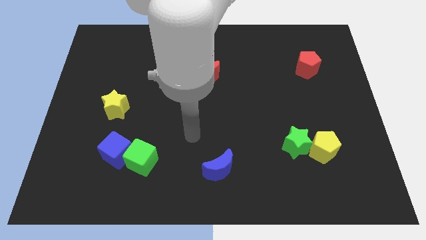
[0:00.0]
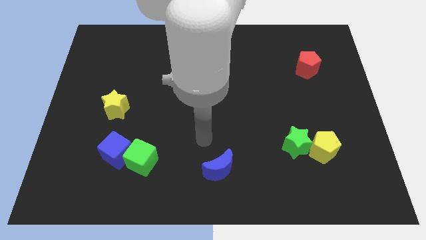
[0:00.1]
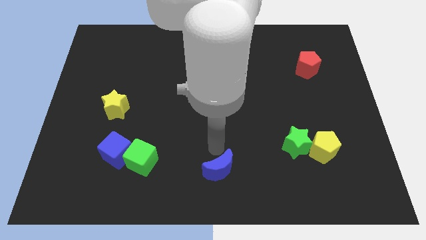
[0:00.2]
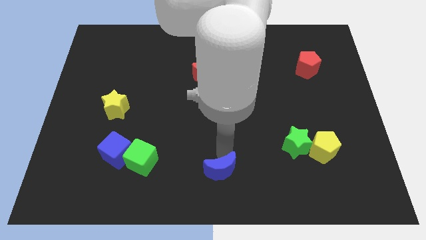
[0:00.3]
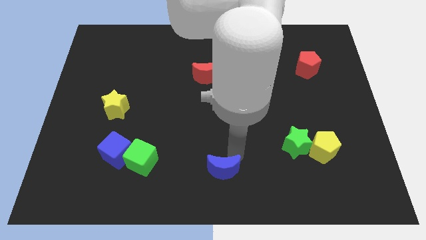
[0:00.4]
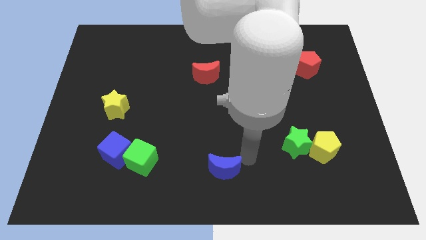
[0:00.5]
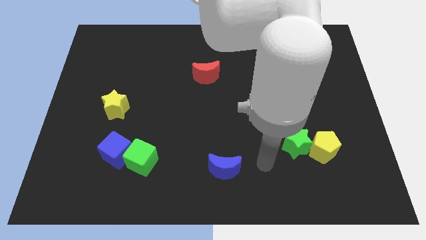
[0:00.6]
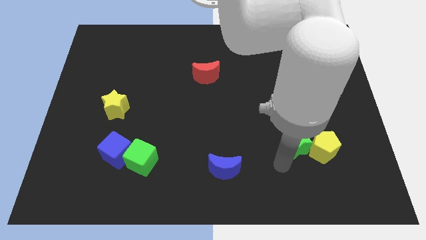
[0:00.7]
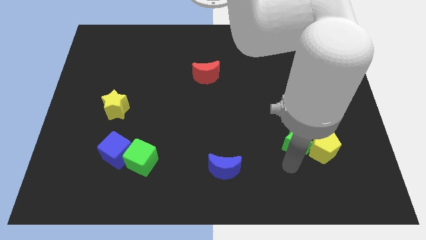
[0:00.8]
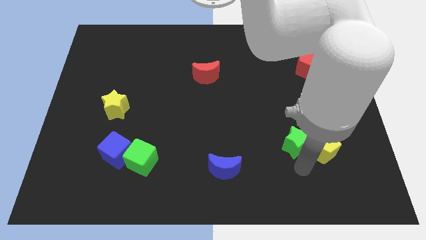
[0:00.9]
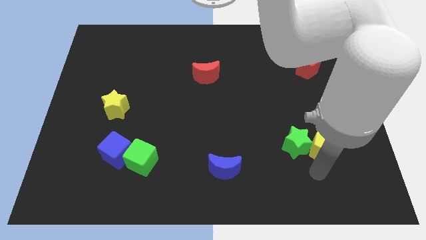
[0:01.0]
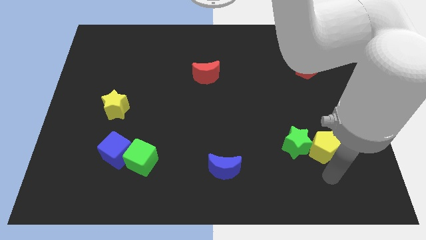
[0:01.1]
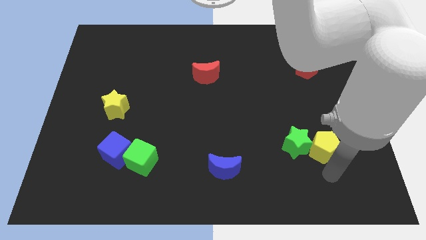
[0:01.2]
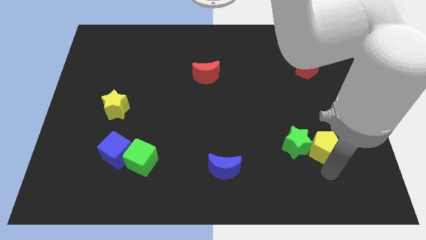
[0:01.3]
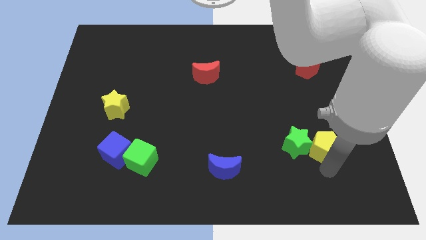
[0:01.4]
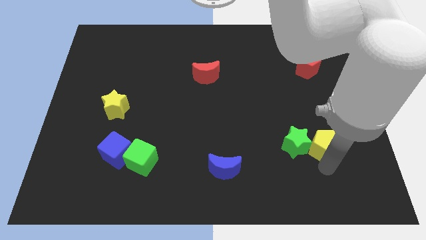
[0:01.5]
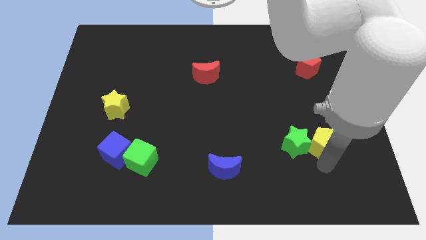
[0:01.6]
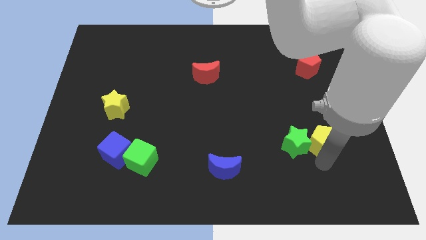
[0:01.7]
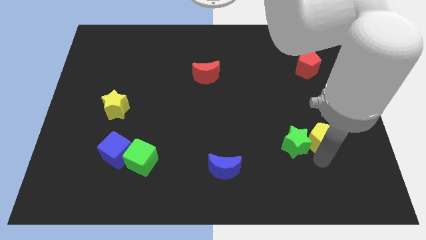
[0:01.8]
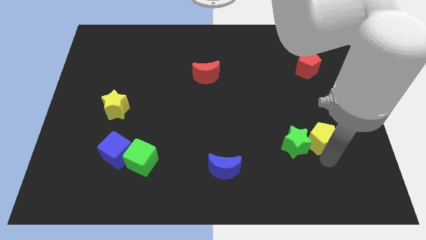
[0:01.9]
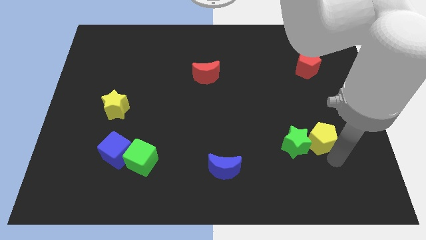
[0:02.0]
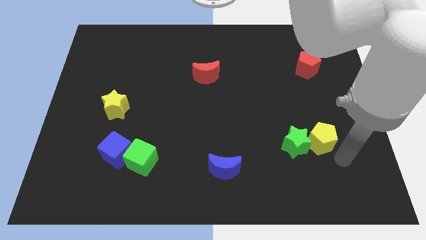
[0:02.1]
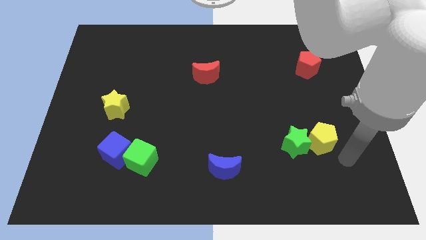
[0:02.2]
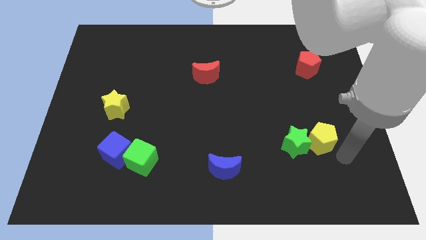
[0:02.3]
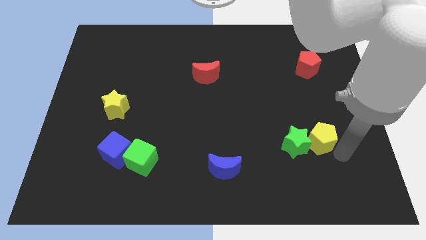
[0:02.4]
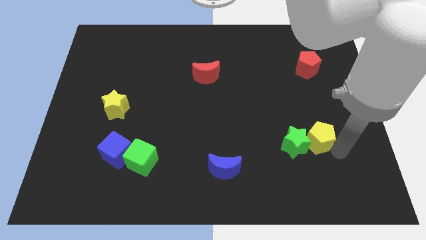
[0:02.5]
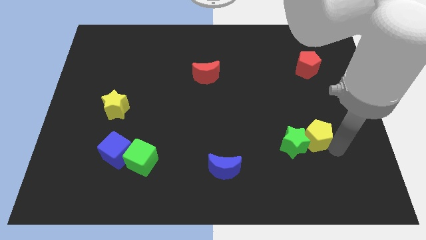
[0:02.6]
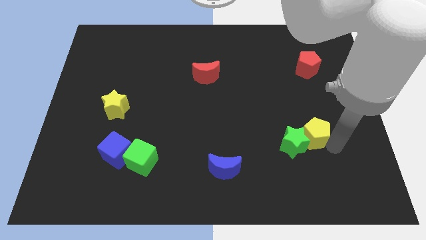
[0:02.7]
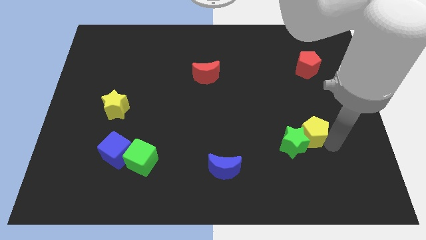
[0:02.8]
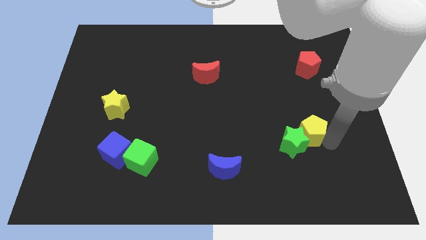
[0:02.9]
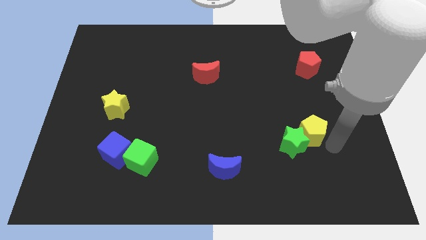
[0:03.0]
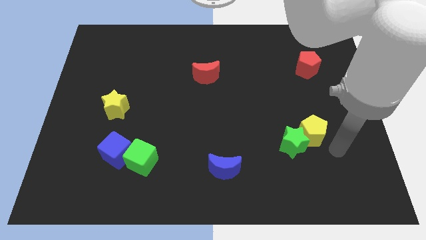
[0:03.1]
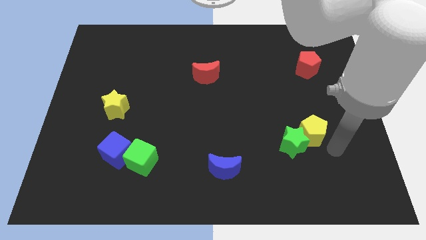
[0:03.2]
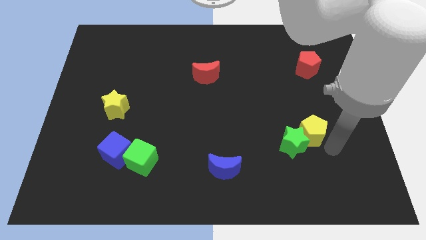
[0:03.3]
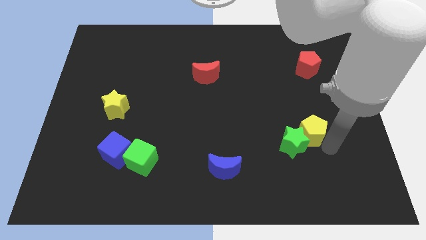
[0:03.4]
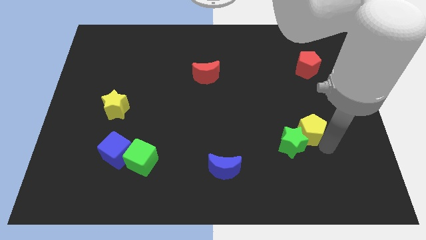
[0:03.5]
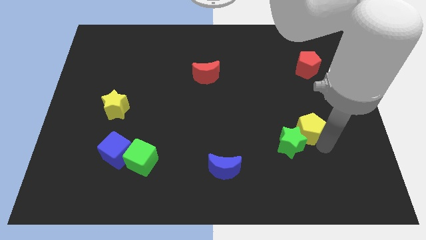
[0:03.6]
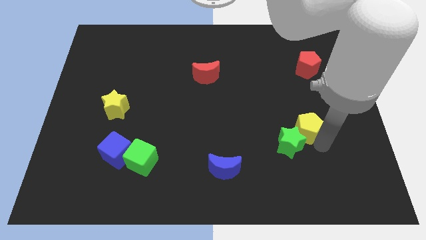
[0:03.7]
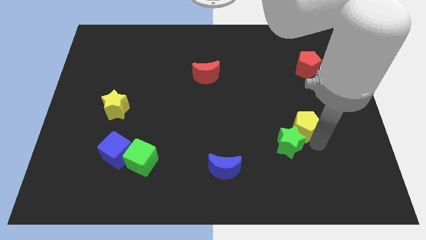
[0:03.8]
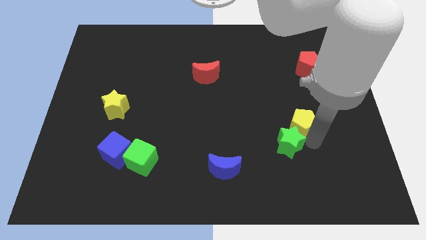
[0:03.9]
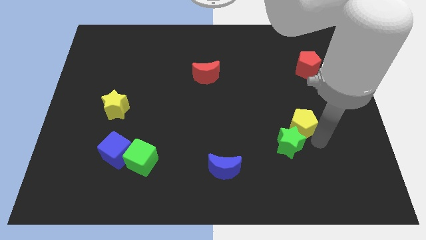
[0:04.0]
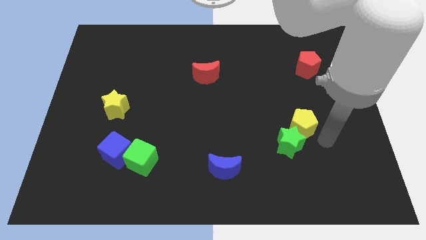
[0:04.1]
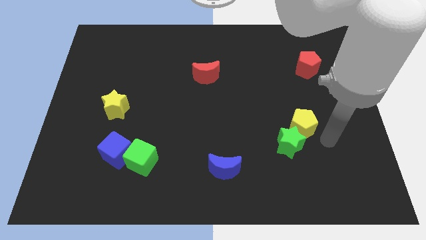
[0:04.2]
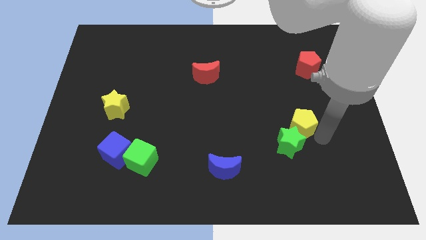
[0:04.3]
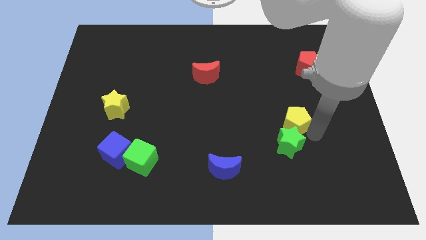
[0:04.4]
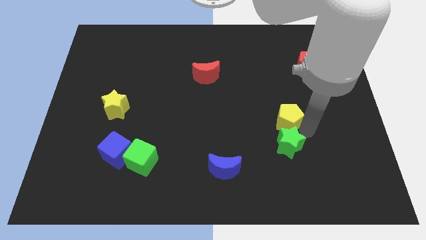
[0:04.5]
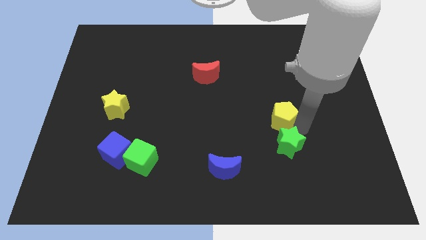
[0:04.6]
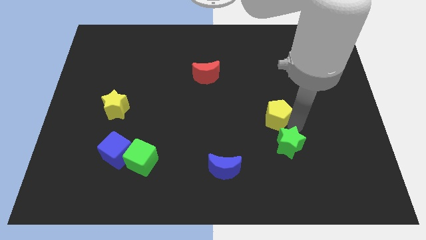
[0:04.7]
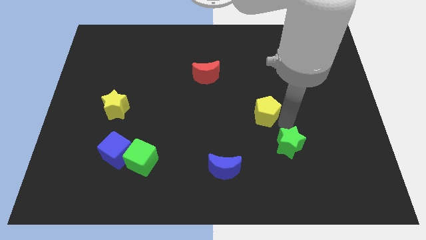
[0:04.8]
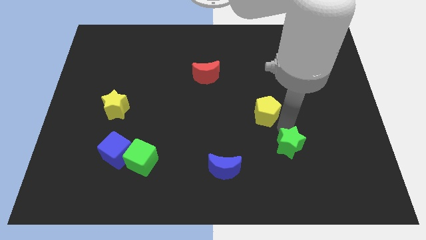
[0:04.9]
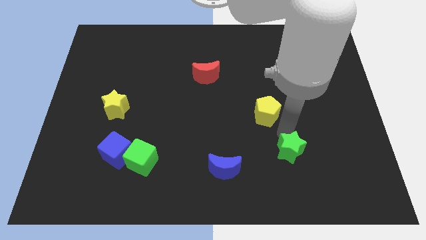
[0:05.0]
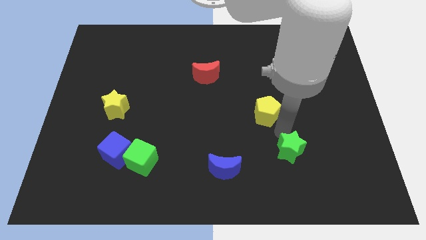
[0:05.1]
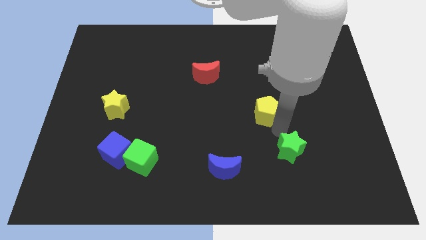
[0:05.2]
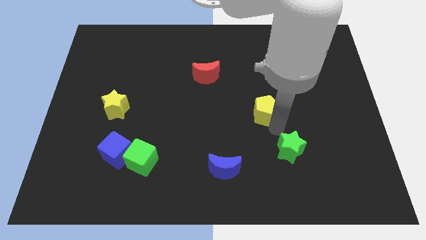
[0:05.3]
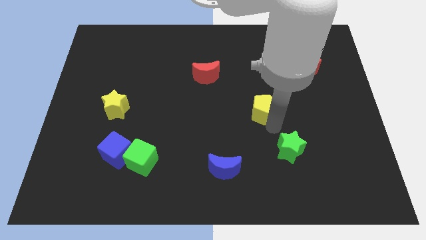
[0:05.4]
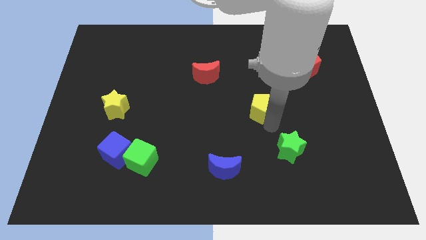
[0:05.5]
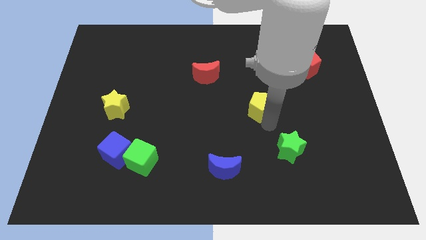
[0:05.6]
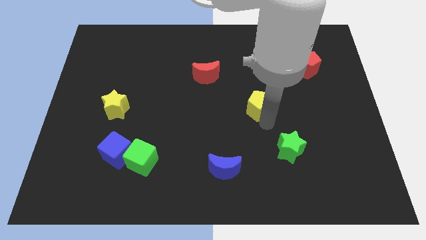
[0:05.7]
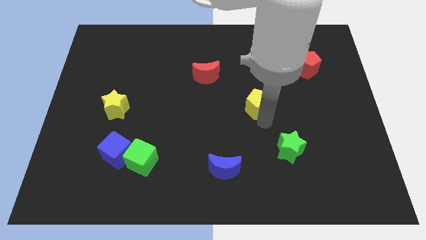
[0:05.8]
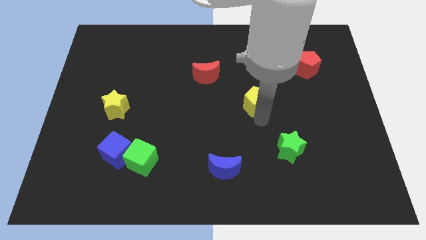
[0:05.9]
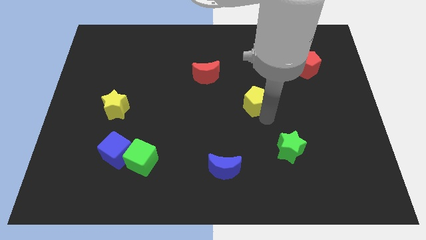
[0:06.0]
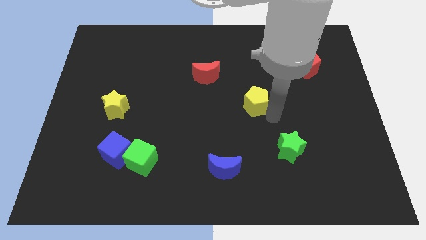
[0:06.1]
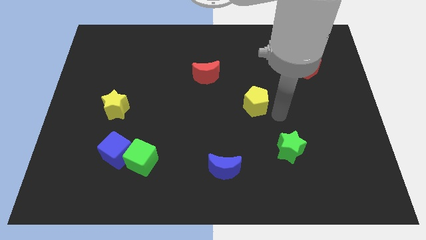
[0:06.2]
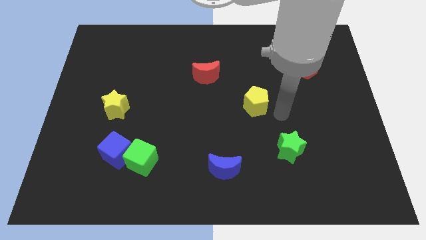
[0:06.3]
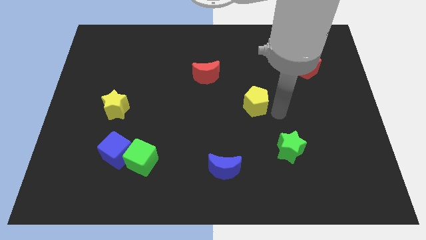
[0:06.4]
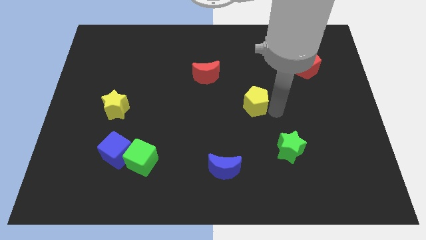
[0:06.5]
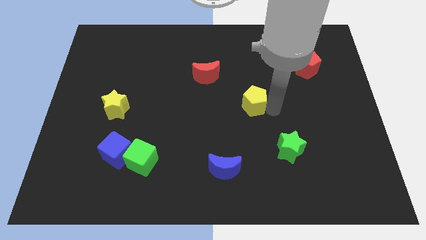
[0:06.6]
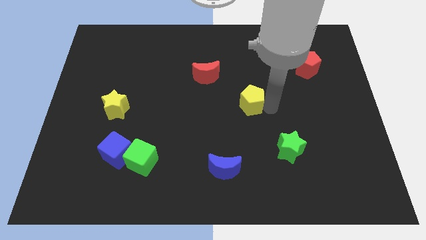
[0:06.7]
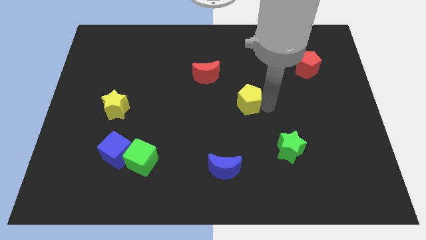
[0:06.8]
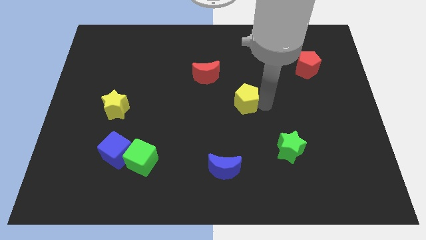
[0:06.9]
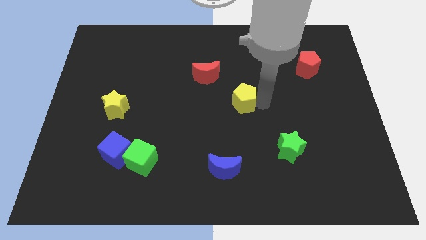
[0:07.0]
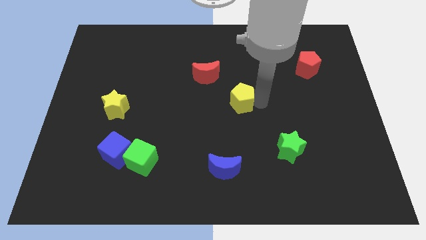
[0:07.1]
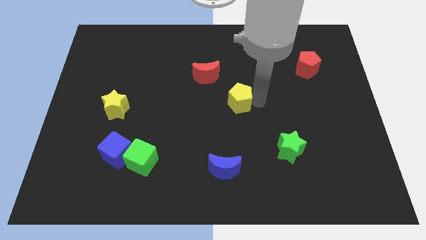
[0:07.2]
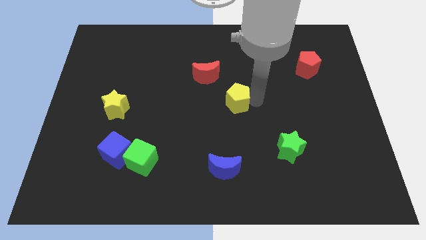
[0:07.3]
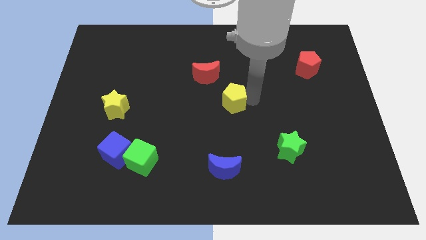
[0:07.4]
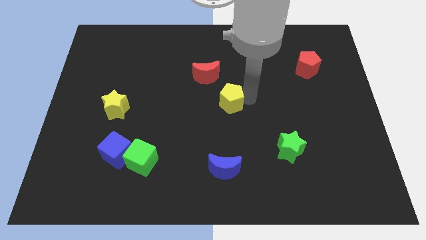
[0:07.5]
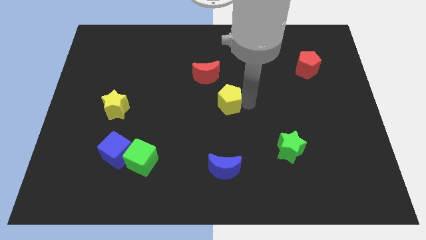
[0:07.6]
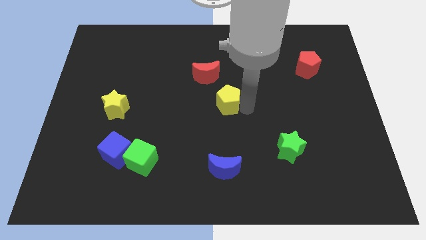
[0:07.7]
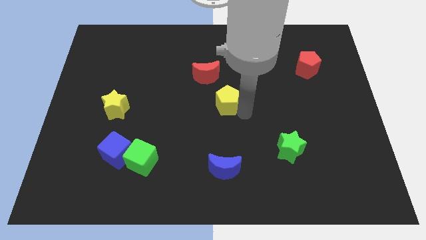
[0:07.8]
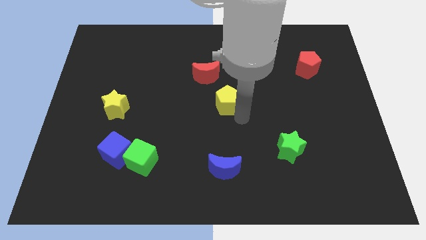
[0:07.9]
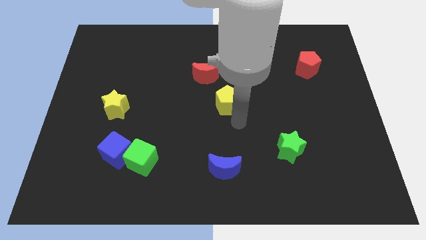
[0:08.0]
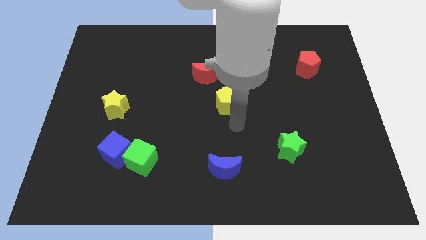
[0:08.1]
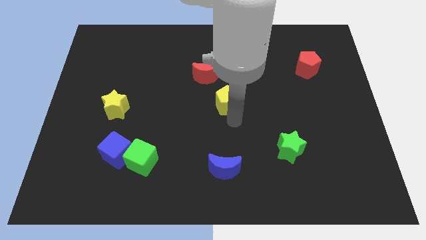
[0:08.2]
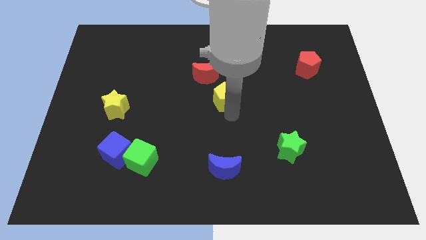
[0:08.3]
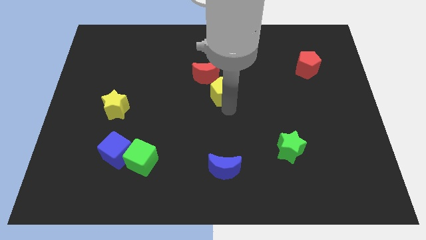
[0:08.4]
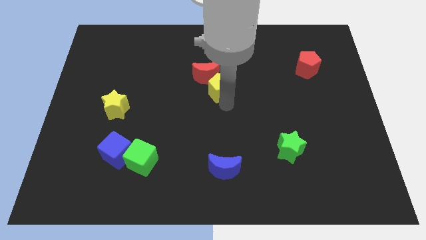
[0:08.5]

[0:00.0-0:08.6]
slide the yellow pentagon to the red moon
